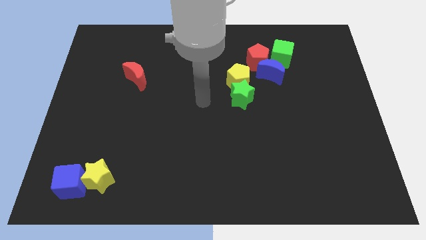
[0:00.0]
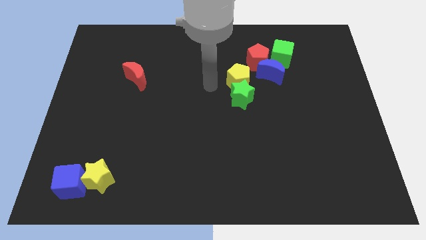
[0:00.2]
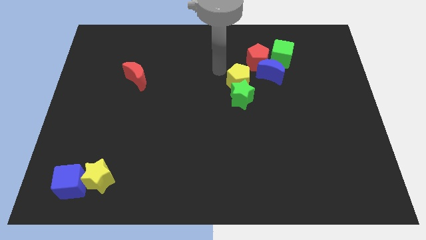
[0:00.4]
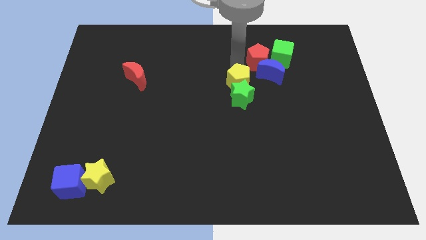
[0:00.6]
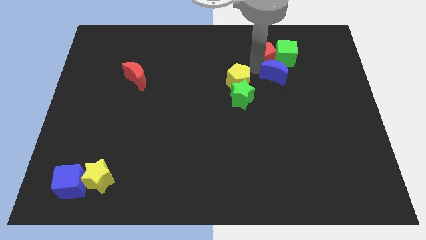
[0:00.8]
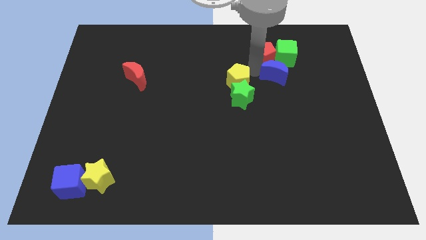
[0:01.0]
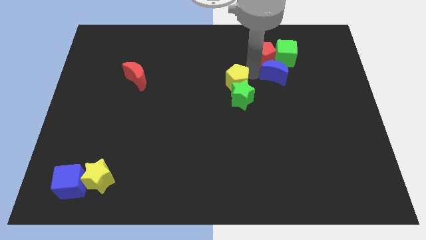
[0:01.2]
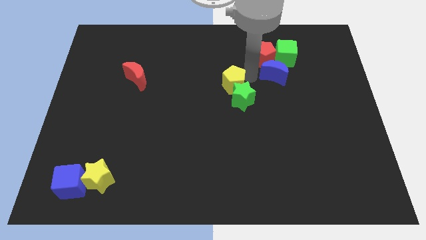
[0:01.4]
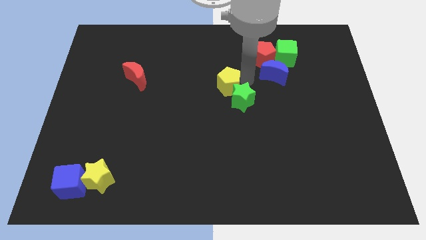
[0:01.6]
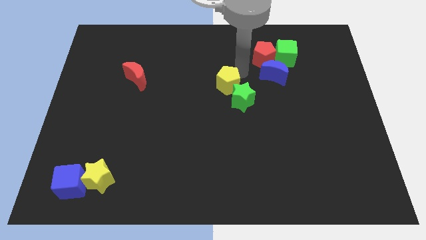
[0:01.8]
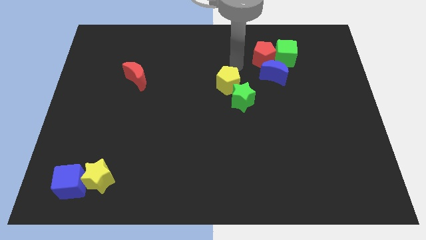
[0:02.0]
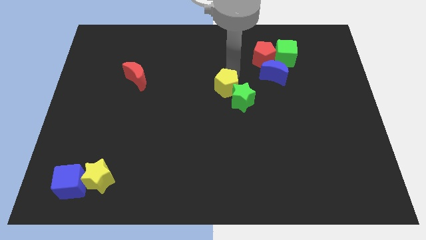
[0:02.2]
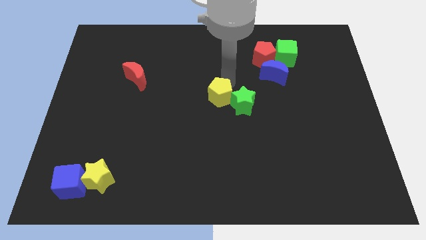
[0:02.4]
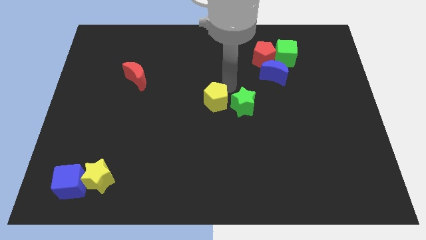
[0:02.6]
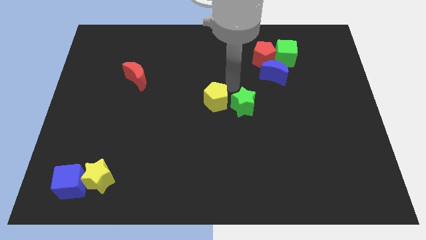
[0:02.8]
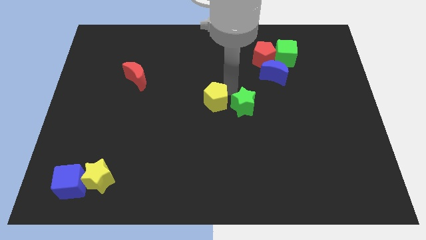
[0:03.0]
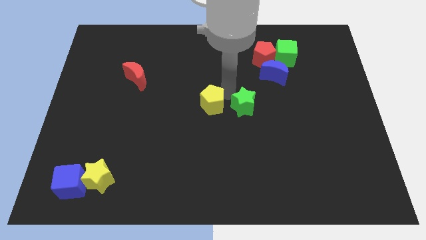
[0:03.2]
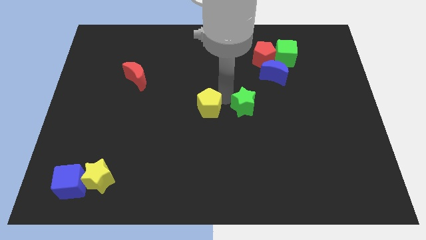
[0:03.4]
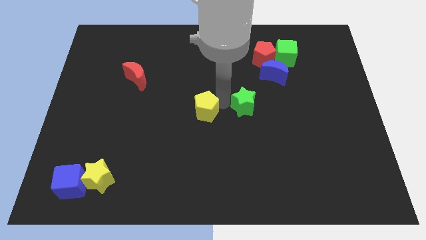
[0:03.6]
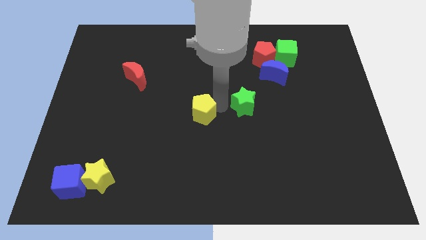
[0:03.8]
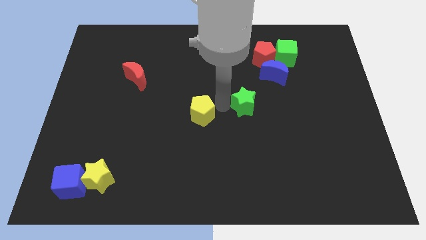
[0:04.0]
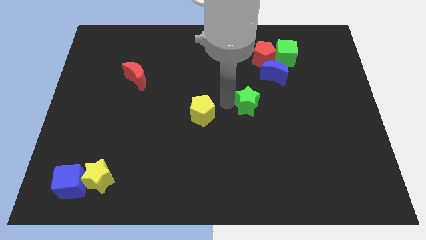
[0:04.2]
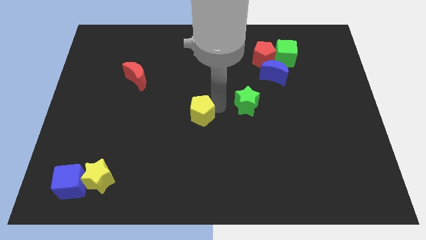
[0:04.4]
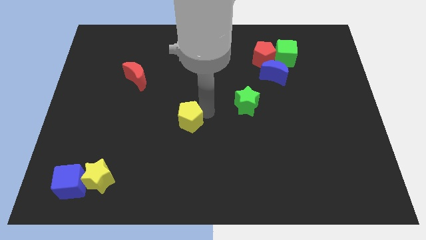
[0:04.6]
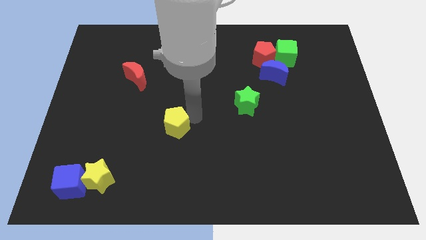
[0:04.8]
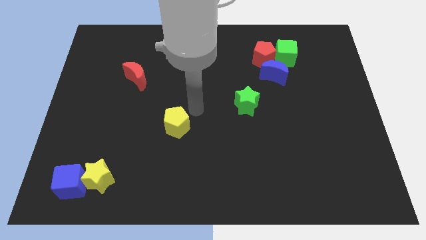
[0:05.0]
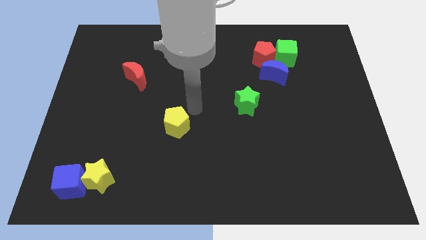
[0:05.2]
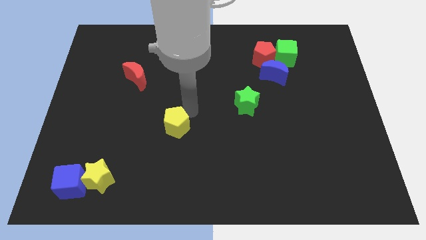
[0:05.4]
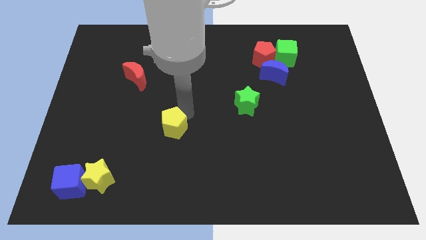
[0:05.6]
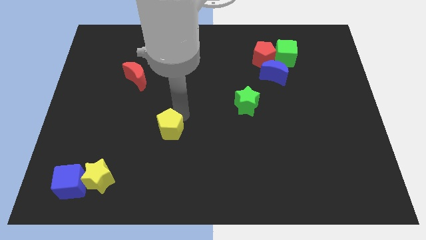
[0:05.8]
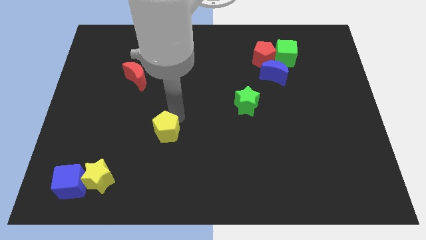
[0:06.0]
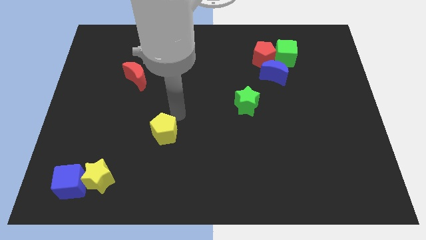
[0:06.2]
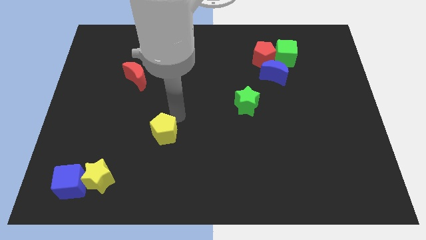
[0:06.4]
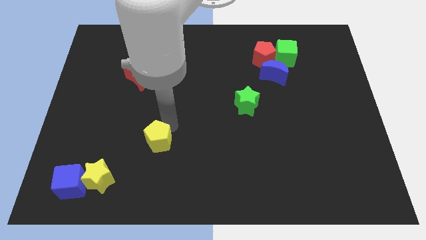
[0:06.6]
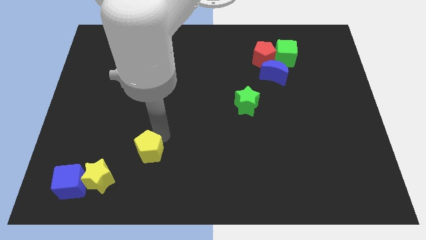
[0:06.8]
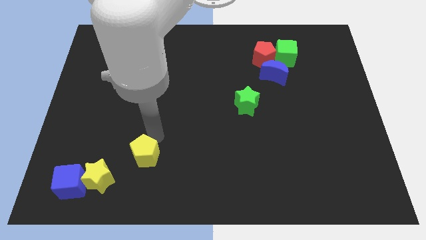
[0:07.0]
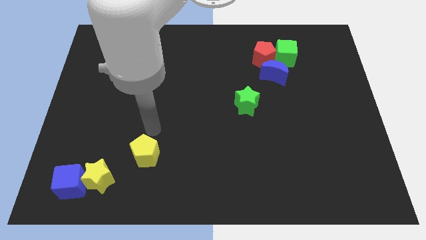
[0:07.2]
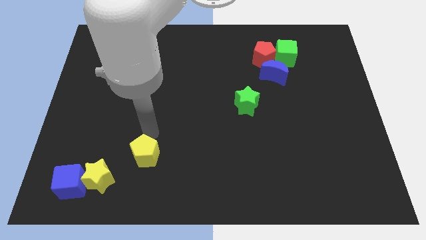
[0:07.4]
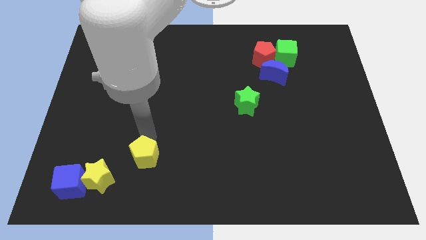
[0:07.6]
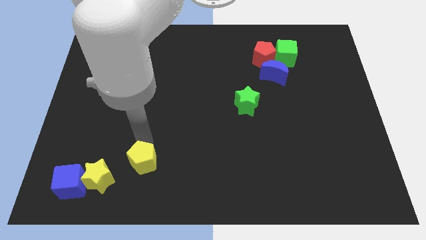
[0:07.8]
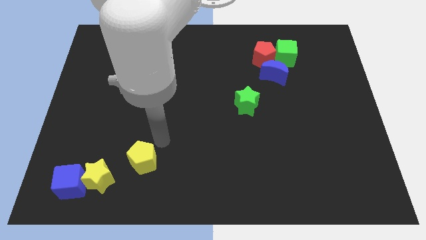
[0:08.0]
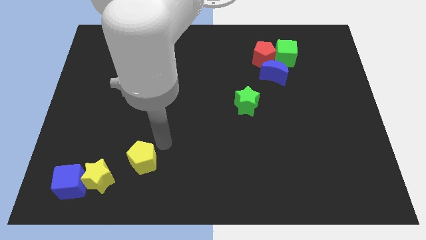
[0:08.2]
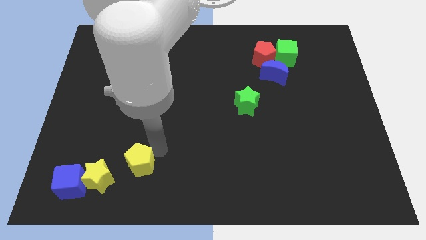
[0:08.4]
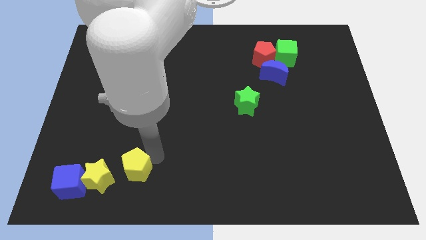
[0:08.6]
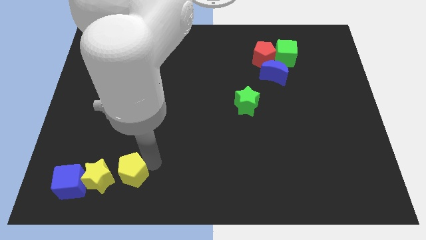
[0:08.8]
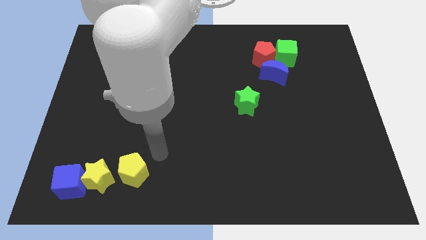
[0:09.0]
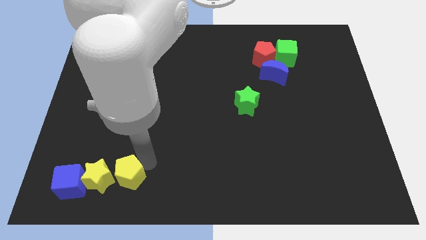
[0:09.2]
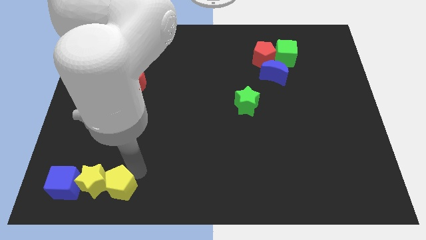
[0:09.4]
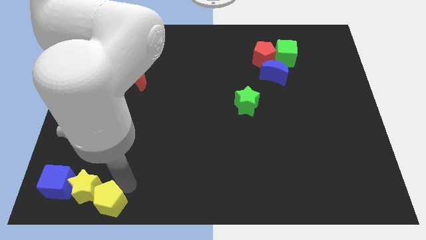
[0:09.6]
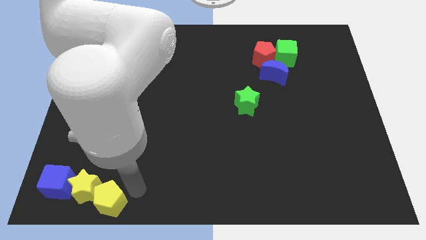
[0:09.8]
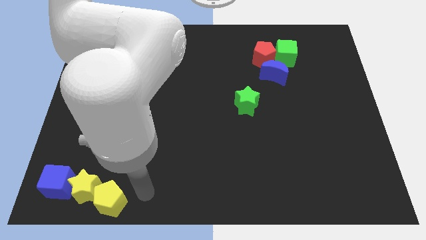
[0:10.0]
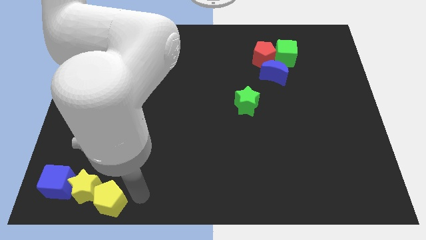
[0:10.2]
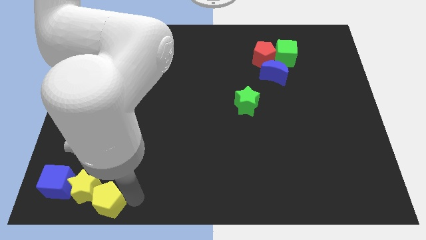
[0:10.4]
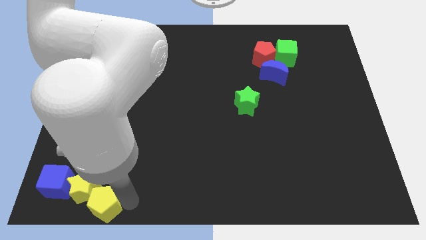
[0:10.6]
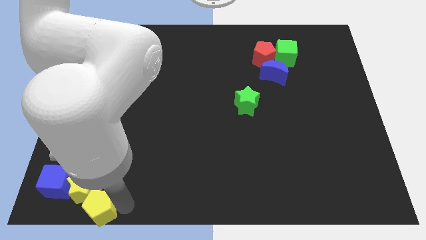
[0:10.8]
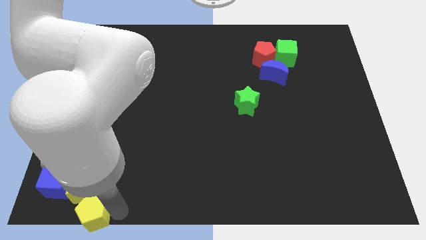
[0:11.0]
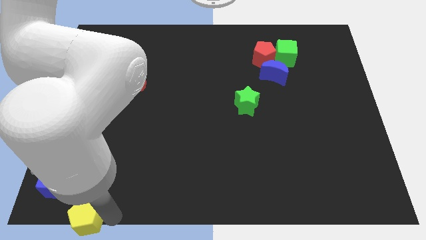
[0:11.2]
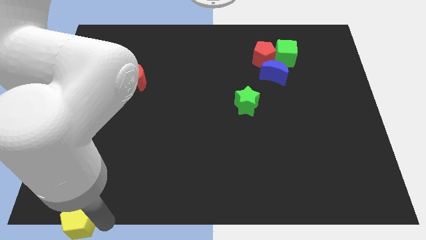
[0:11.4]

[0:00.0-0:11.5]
move the yellow pentagon to the bottom left
